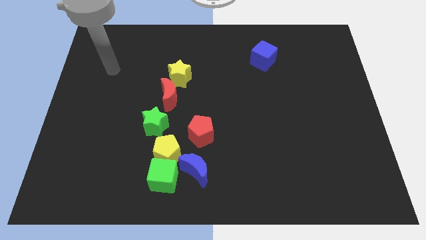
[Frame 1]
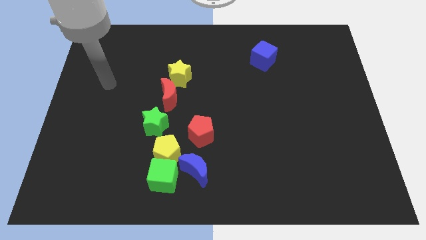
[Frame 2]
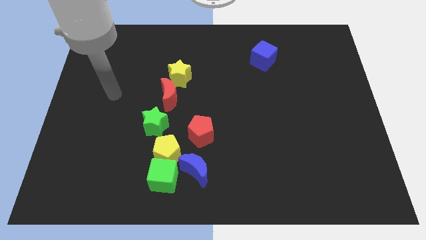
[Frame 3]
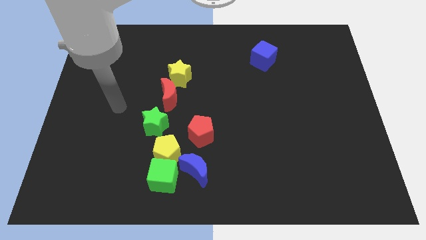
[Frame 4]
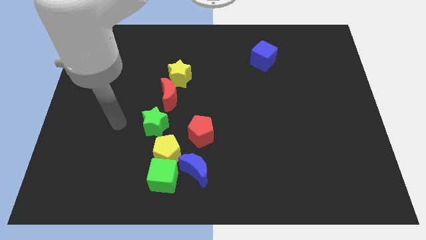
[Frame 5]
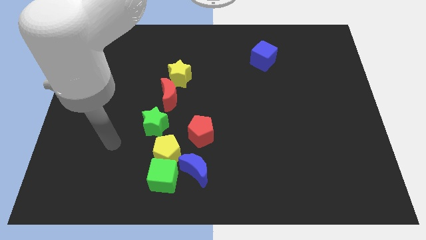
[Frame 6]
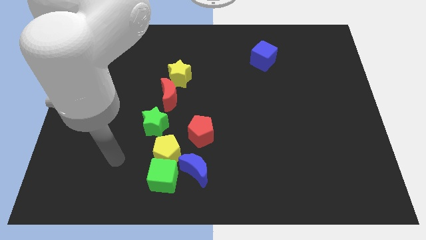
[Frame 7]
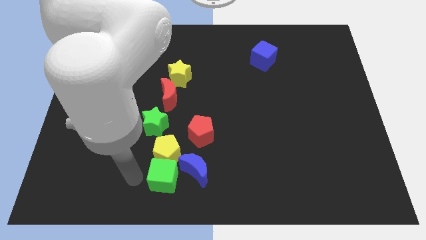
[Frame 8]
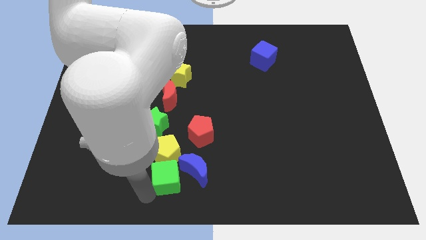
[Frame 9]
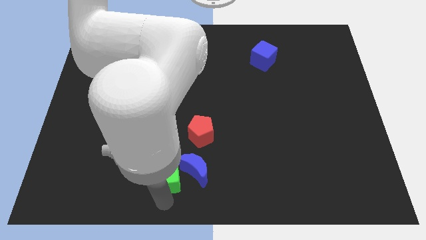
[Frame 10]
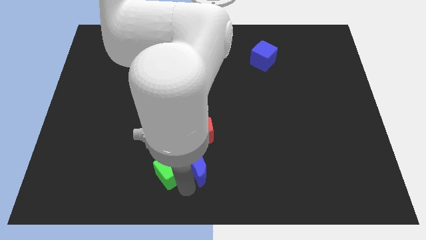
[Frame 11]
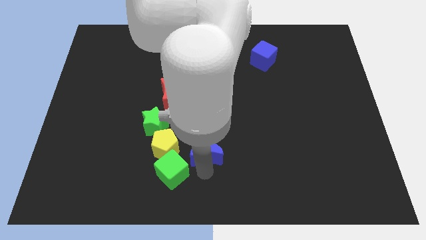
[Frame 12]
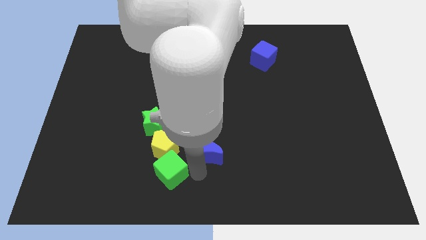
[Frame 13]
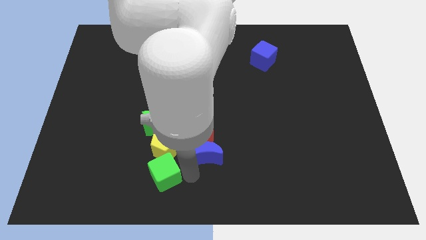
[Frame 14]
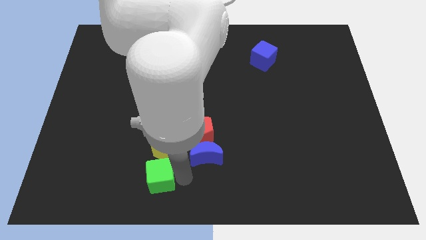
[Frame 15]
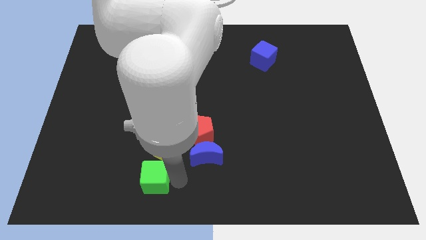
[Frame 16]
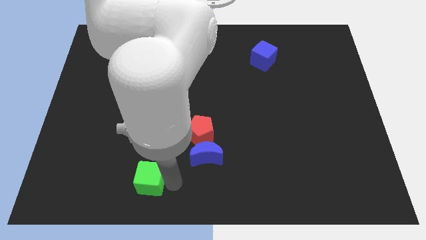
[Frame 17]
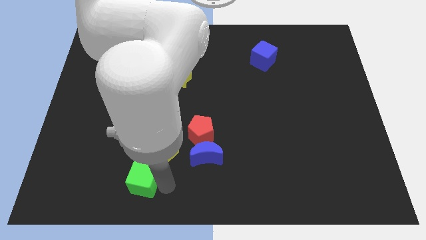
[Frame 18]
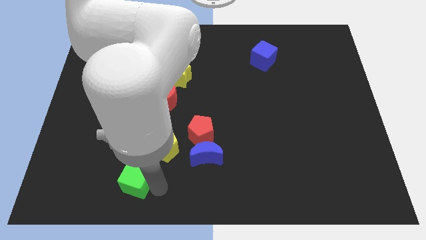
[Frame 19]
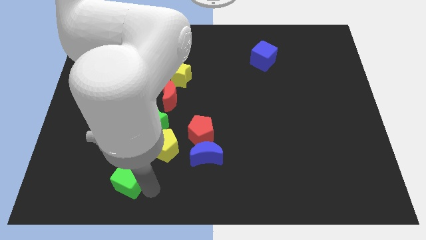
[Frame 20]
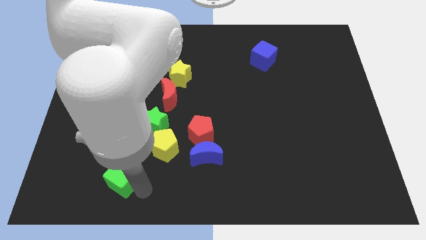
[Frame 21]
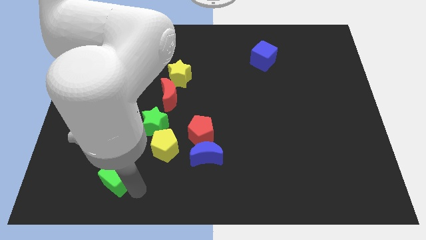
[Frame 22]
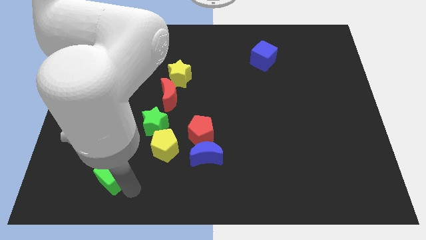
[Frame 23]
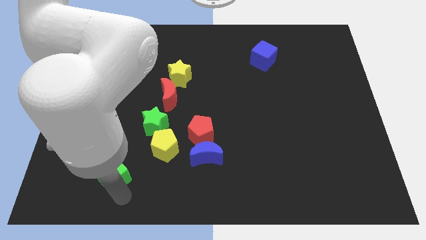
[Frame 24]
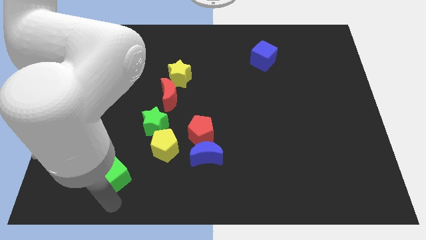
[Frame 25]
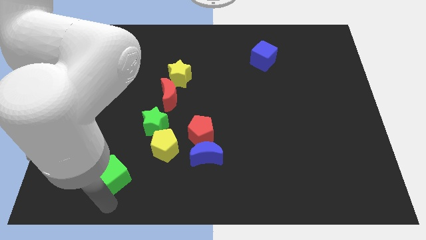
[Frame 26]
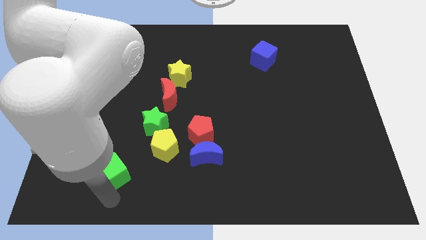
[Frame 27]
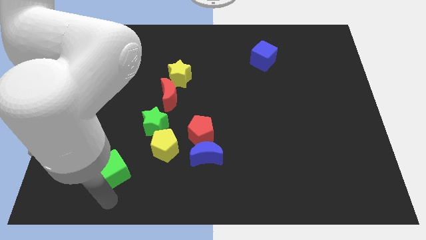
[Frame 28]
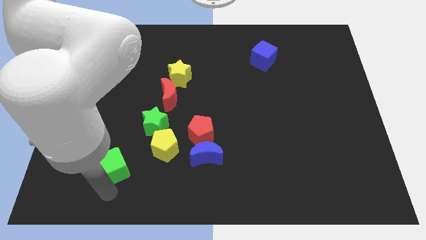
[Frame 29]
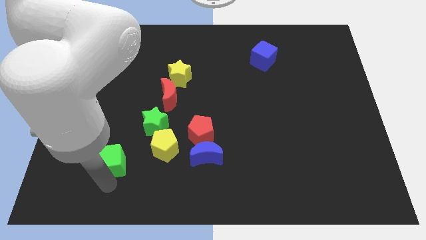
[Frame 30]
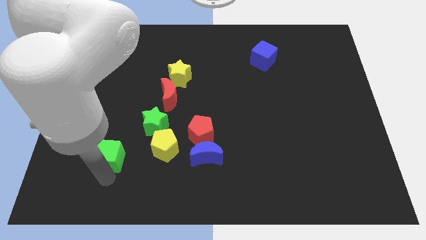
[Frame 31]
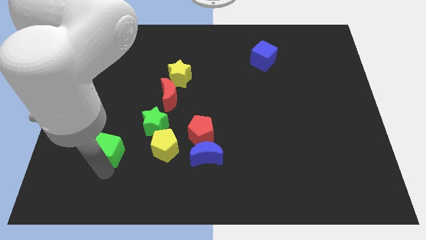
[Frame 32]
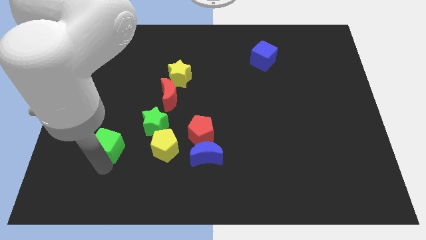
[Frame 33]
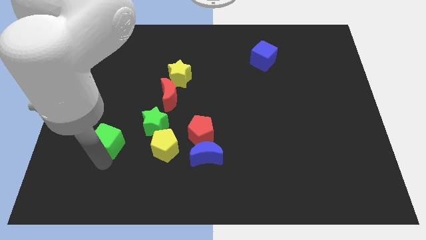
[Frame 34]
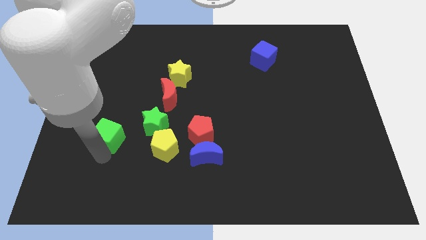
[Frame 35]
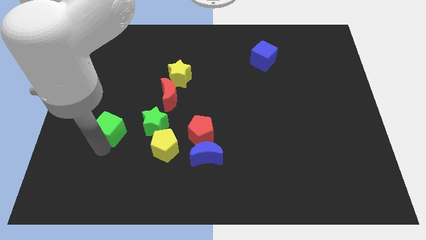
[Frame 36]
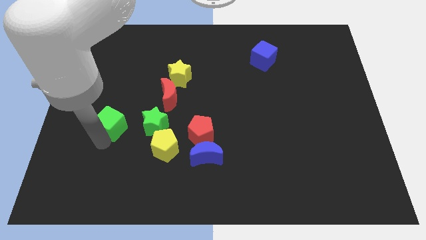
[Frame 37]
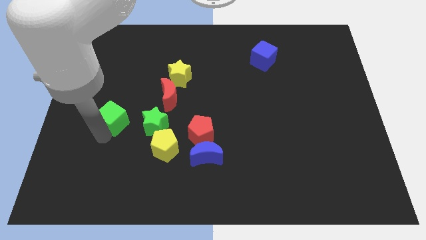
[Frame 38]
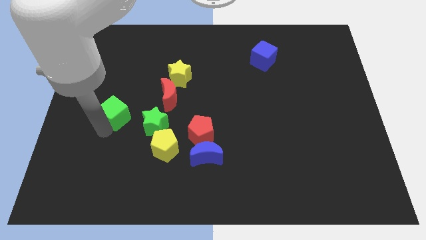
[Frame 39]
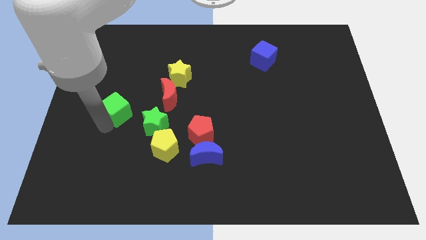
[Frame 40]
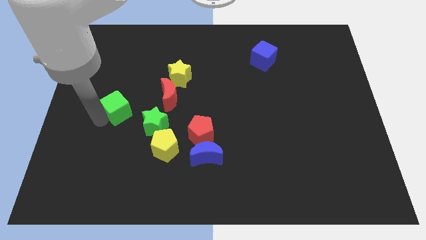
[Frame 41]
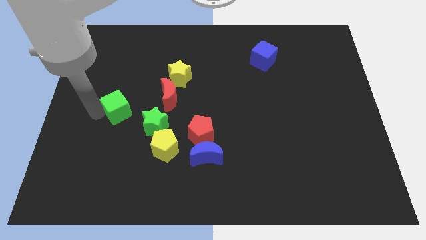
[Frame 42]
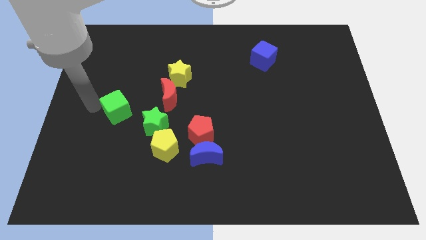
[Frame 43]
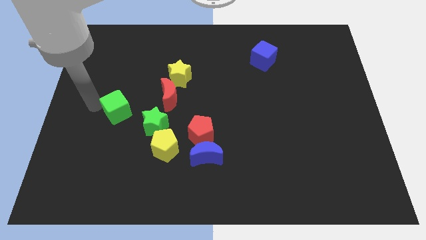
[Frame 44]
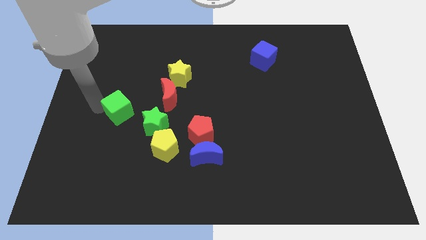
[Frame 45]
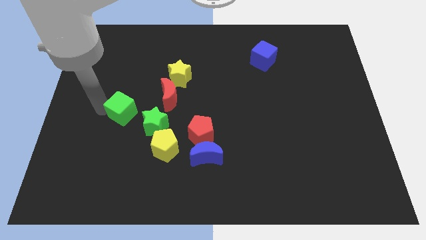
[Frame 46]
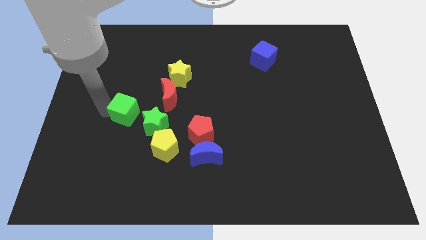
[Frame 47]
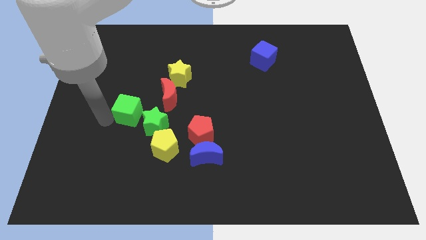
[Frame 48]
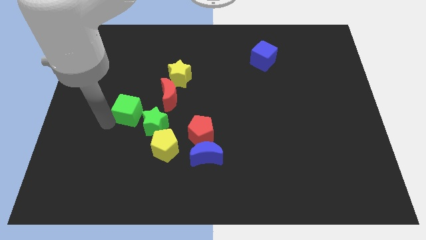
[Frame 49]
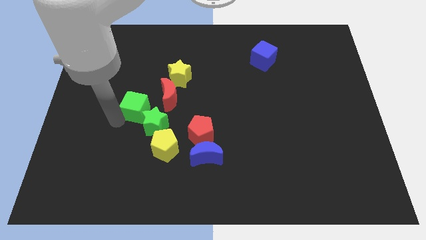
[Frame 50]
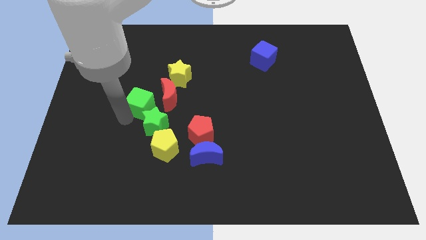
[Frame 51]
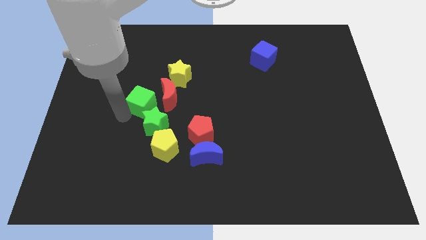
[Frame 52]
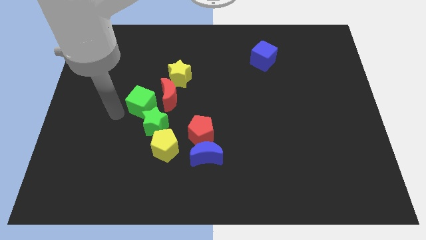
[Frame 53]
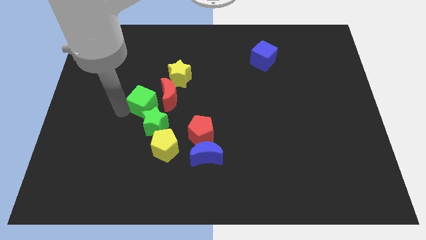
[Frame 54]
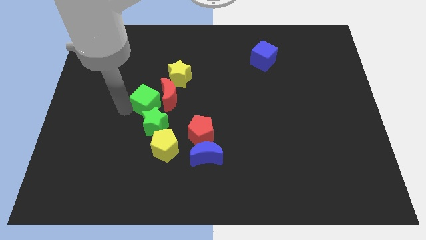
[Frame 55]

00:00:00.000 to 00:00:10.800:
move the green cube to the red moon

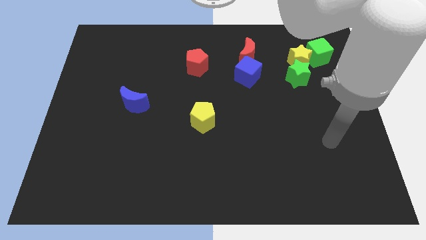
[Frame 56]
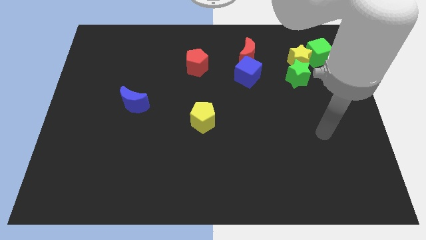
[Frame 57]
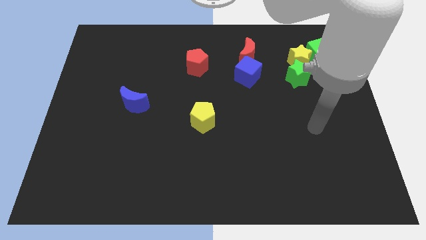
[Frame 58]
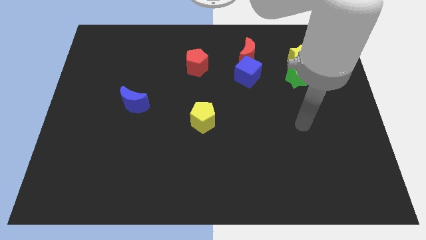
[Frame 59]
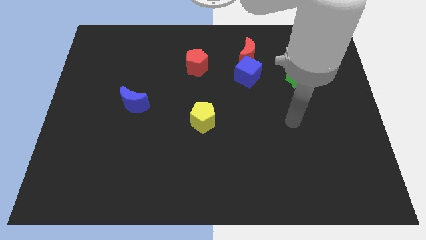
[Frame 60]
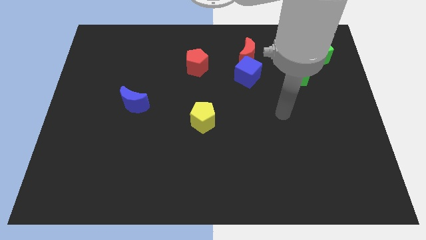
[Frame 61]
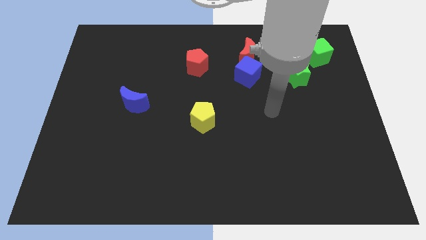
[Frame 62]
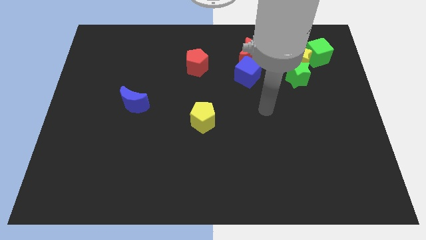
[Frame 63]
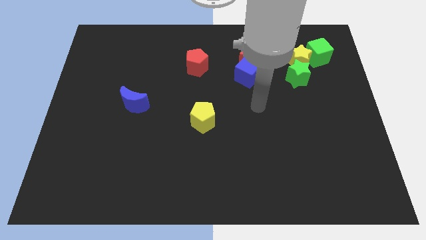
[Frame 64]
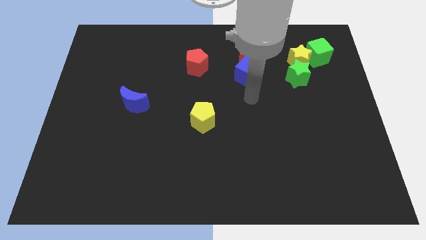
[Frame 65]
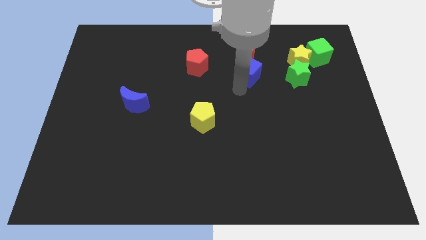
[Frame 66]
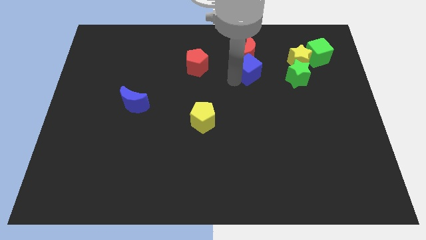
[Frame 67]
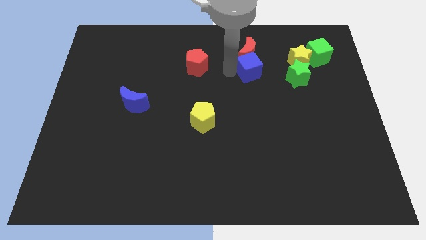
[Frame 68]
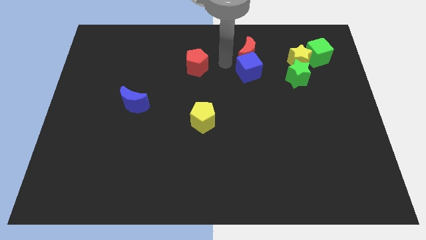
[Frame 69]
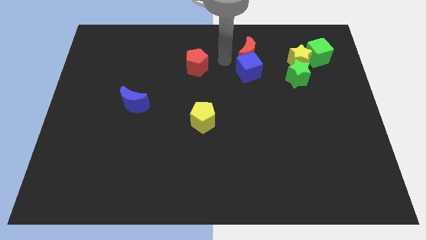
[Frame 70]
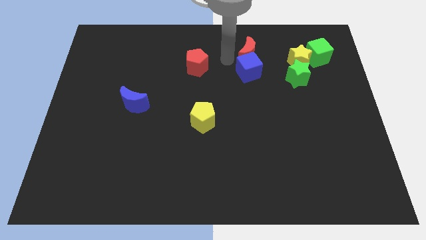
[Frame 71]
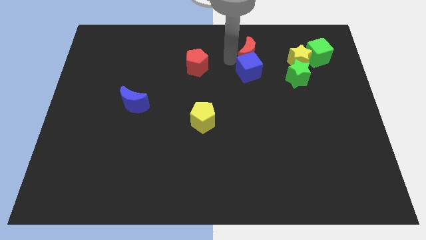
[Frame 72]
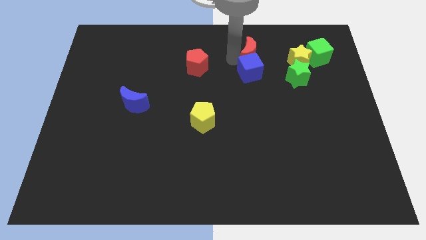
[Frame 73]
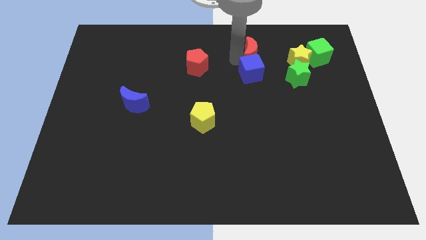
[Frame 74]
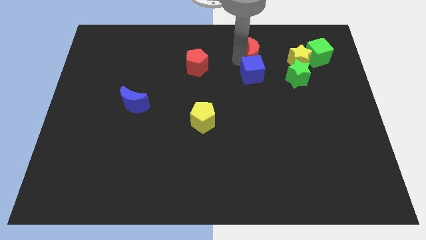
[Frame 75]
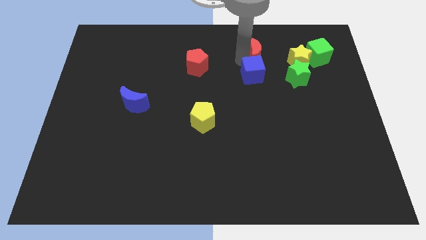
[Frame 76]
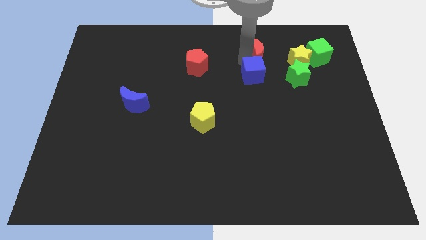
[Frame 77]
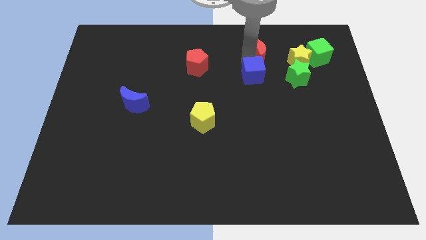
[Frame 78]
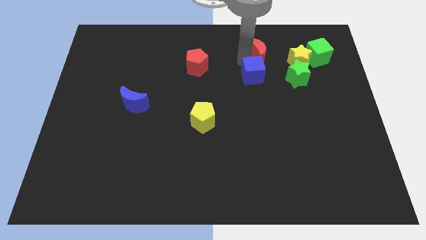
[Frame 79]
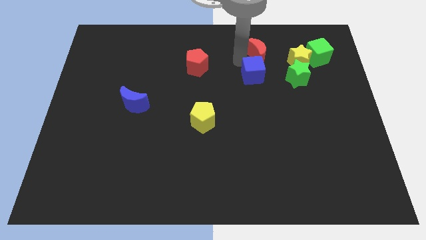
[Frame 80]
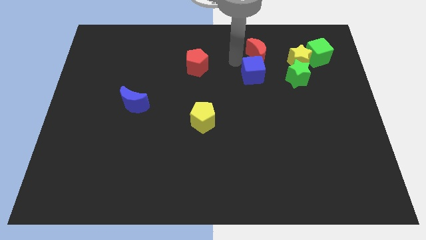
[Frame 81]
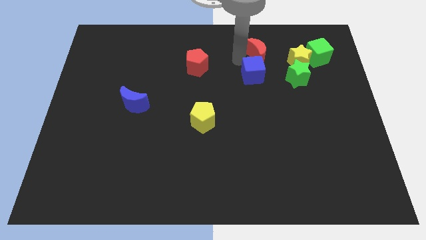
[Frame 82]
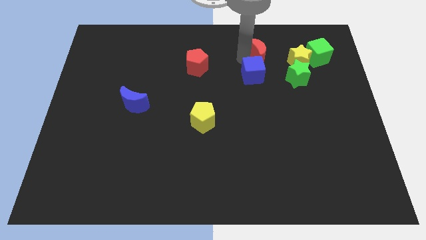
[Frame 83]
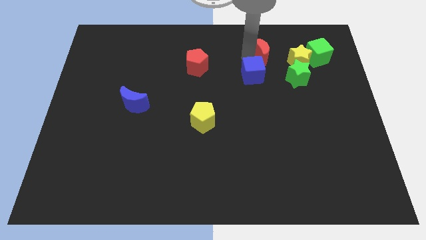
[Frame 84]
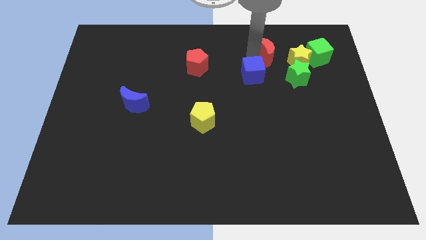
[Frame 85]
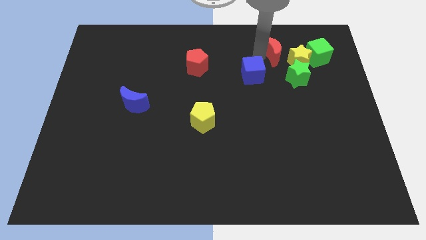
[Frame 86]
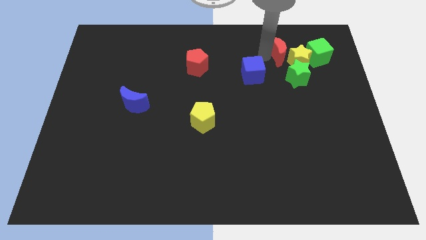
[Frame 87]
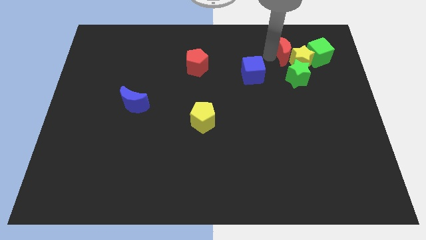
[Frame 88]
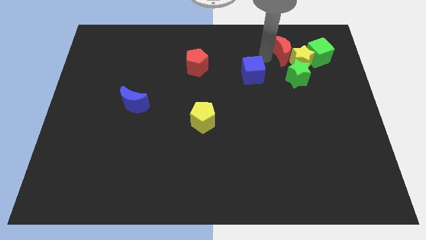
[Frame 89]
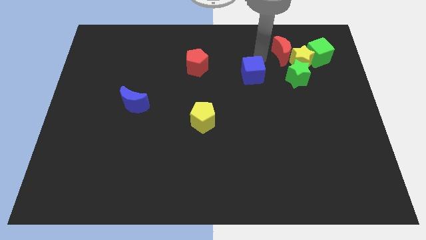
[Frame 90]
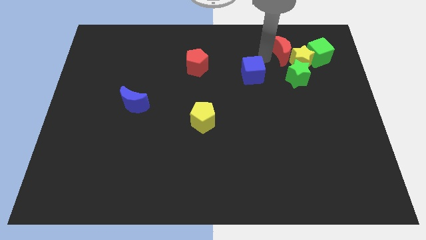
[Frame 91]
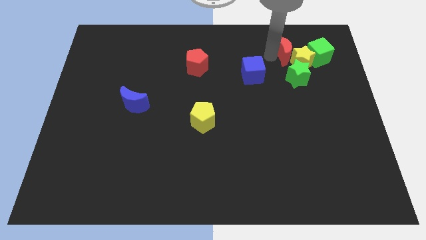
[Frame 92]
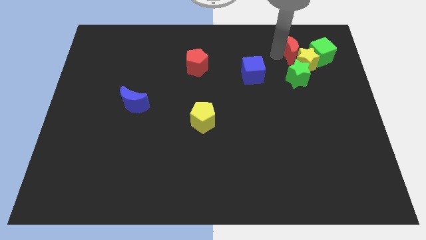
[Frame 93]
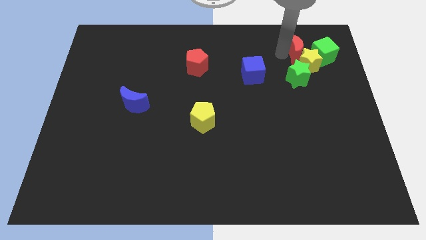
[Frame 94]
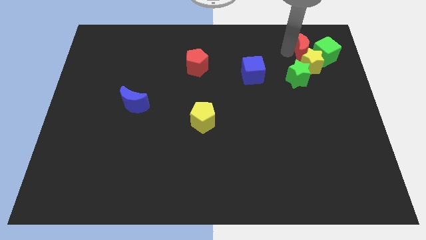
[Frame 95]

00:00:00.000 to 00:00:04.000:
push the red moon towards the green cube
